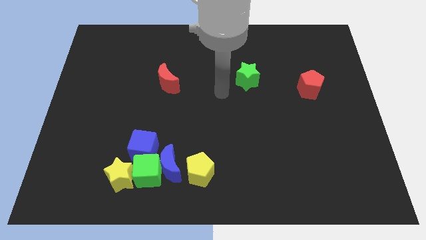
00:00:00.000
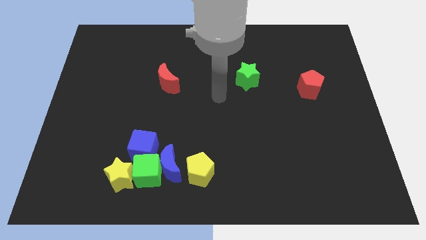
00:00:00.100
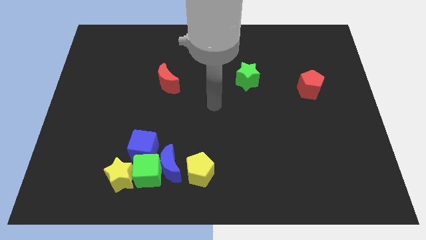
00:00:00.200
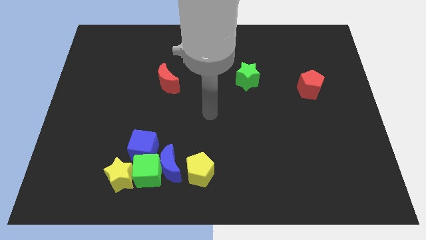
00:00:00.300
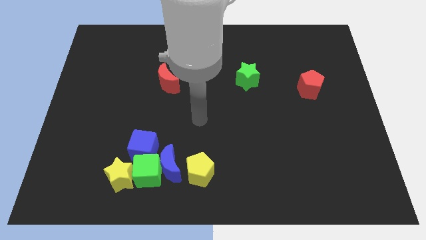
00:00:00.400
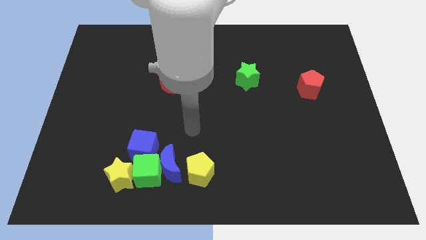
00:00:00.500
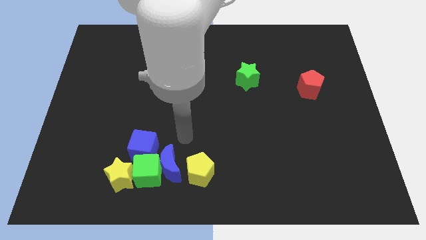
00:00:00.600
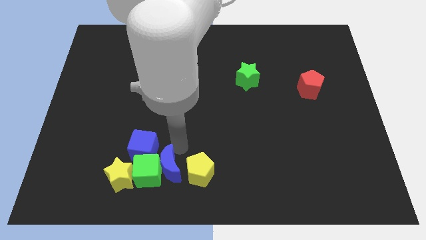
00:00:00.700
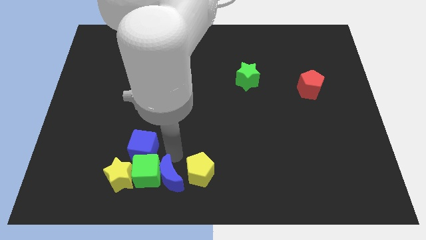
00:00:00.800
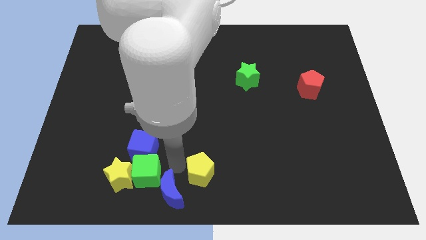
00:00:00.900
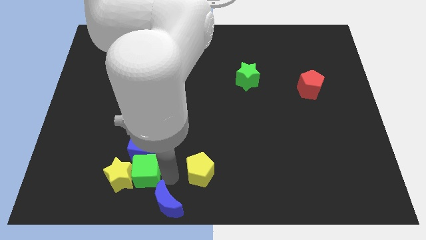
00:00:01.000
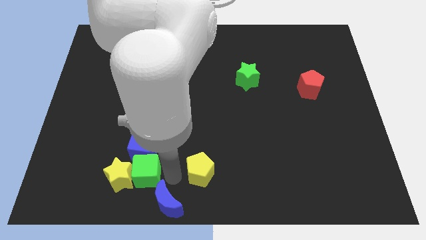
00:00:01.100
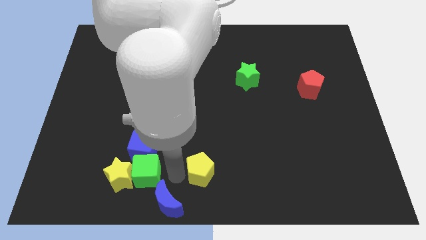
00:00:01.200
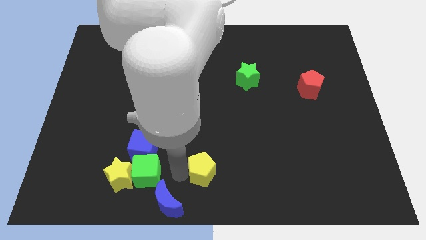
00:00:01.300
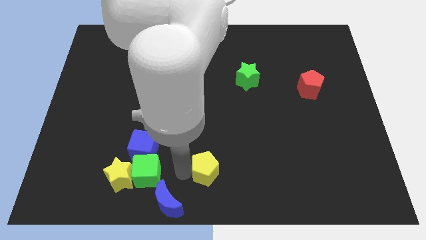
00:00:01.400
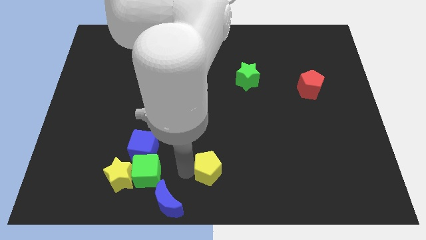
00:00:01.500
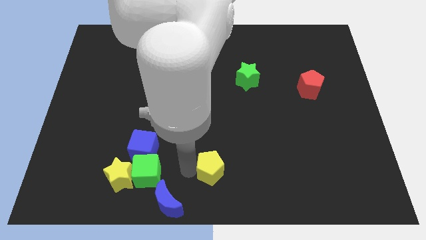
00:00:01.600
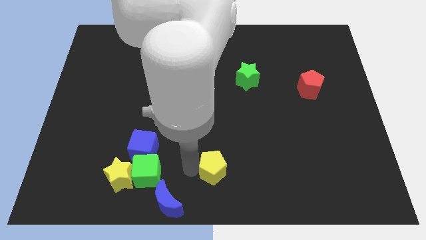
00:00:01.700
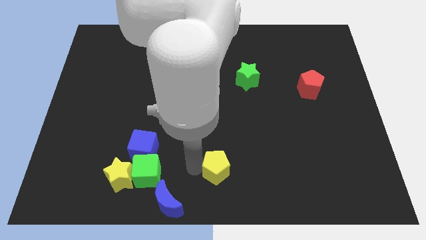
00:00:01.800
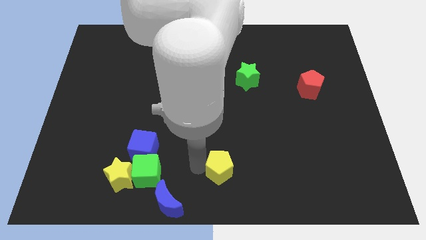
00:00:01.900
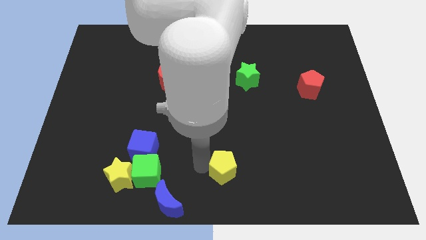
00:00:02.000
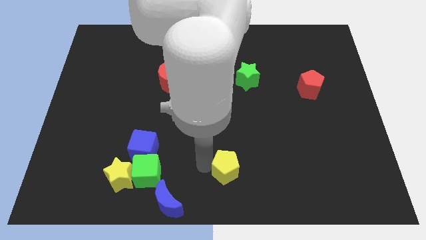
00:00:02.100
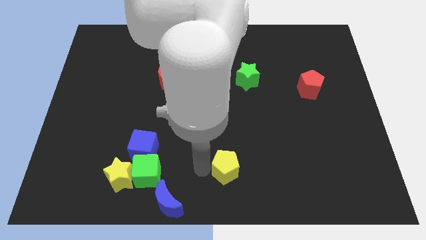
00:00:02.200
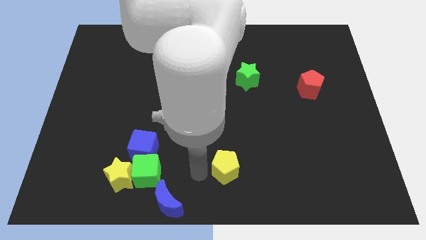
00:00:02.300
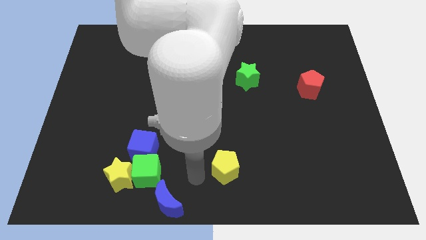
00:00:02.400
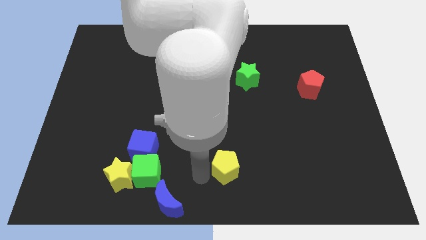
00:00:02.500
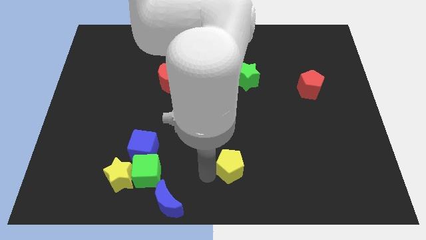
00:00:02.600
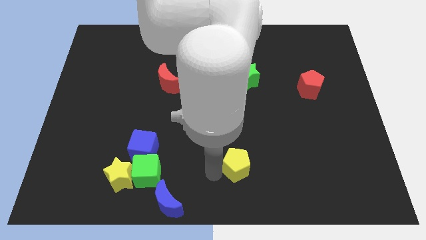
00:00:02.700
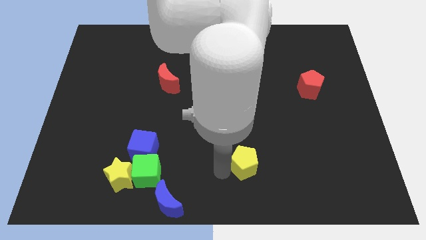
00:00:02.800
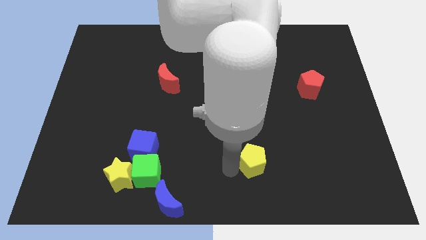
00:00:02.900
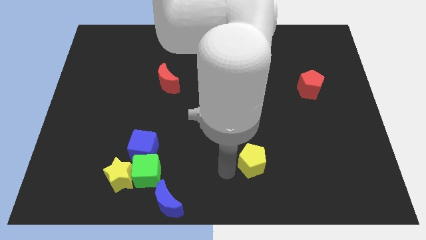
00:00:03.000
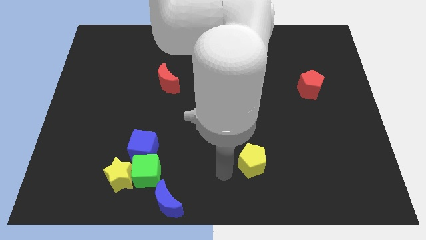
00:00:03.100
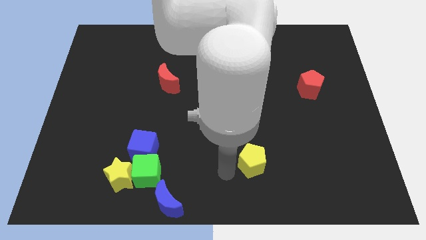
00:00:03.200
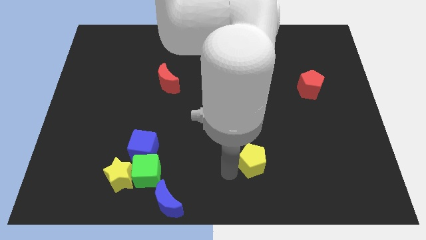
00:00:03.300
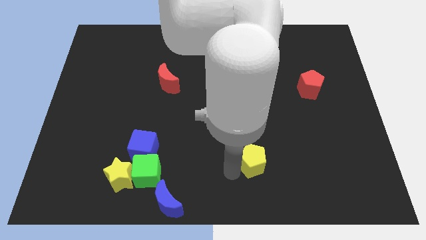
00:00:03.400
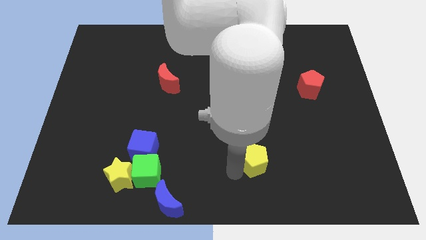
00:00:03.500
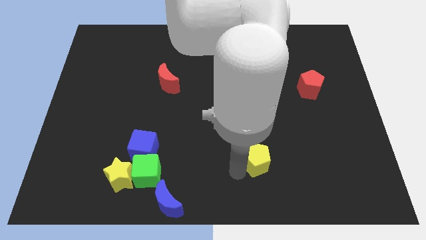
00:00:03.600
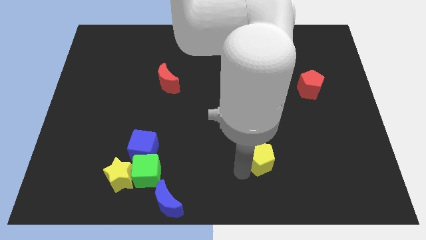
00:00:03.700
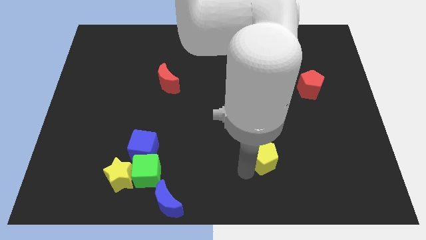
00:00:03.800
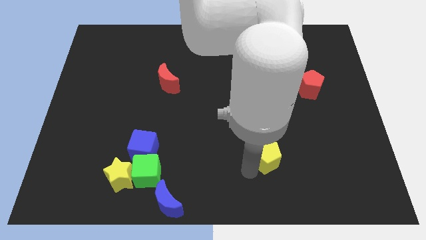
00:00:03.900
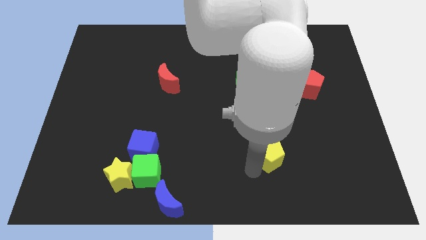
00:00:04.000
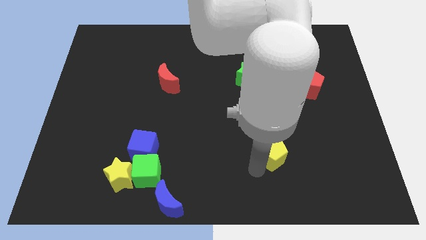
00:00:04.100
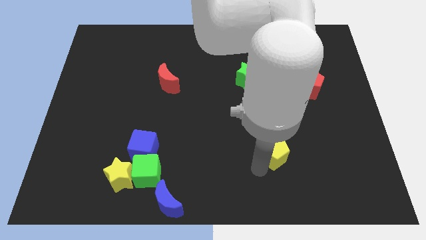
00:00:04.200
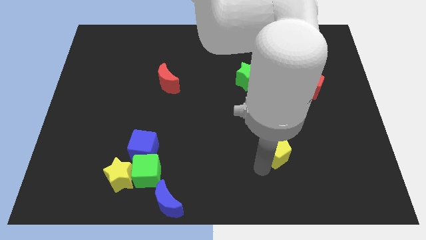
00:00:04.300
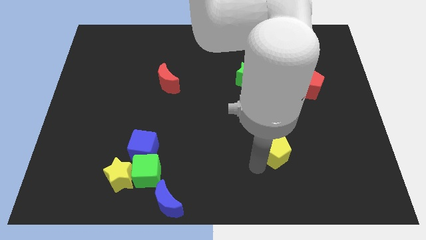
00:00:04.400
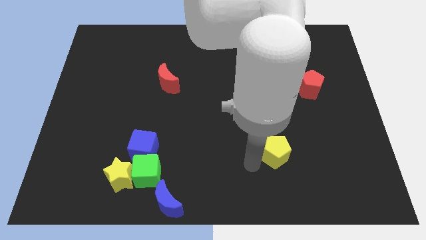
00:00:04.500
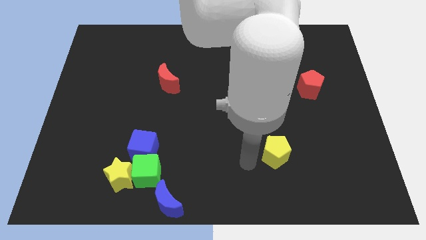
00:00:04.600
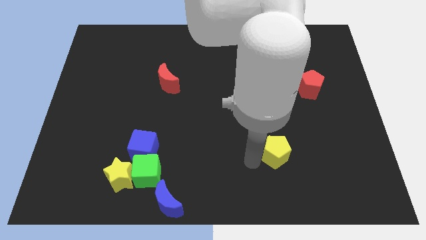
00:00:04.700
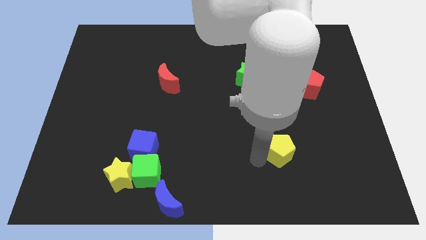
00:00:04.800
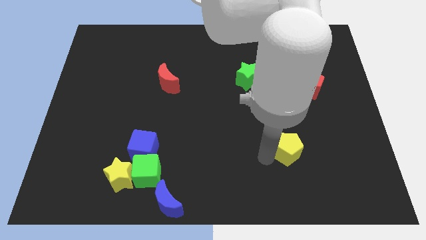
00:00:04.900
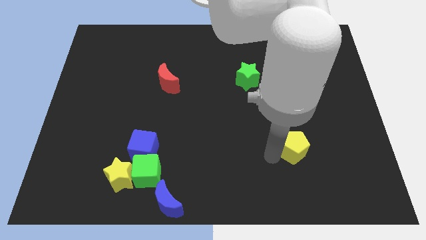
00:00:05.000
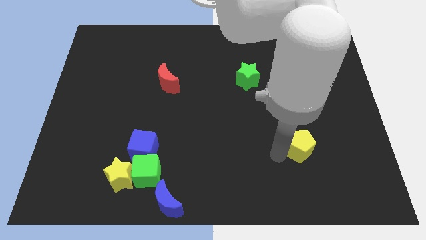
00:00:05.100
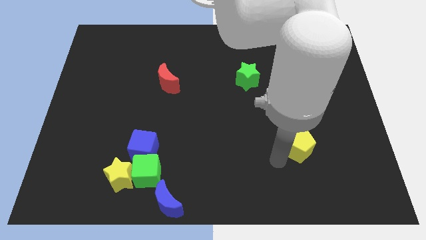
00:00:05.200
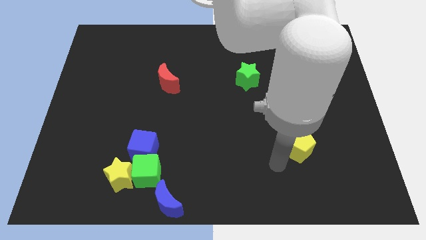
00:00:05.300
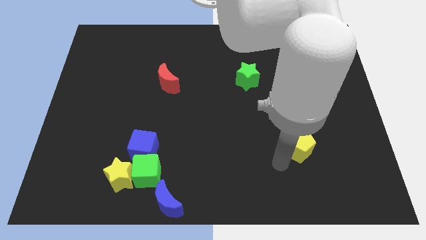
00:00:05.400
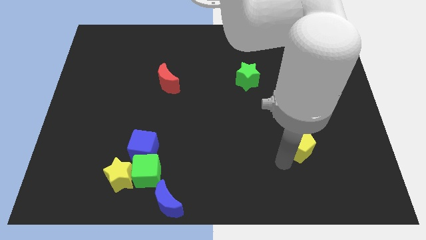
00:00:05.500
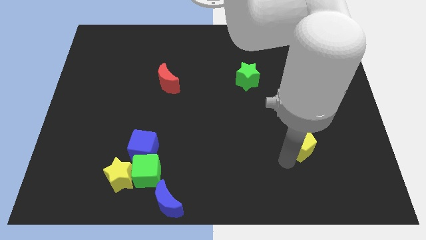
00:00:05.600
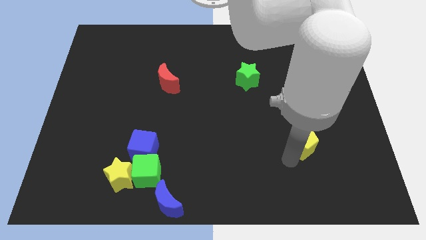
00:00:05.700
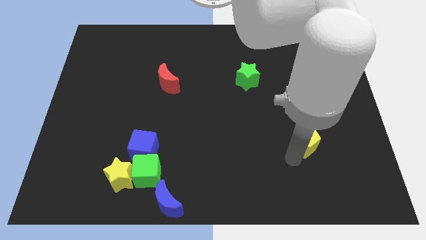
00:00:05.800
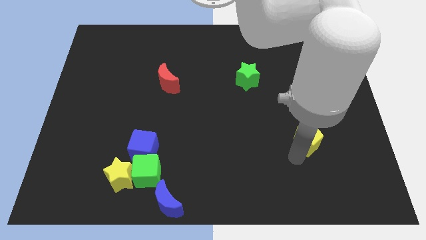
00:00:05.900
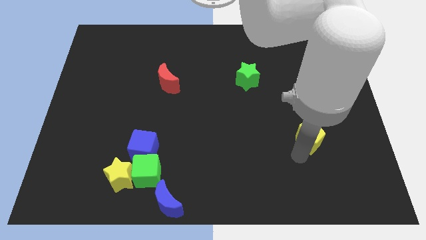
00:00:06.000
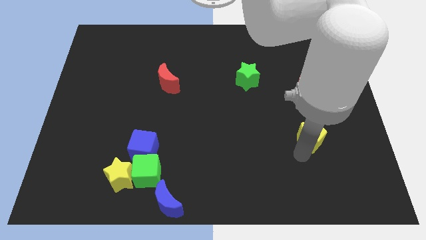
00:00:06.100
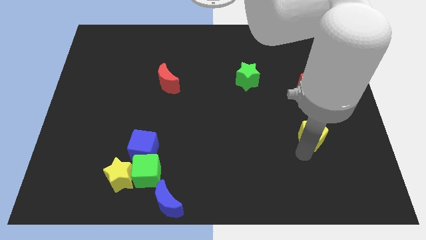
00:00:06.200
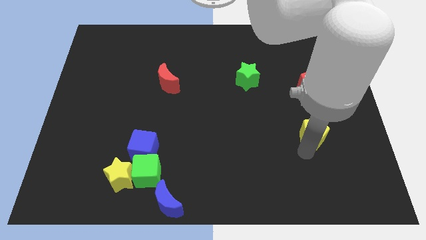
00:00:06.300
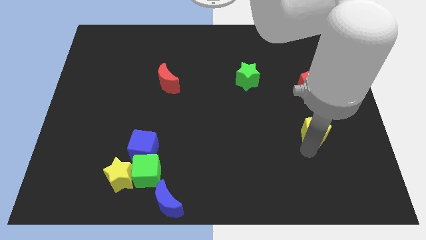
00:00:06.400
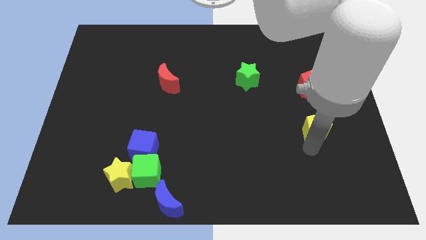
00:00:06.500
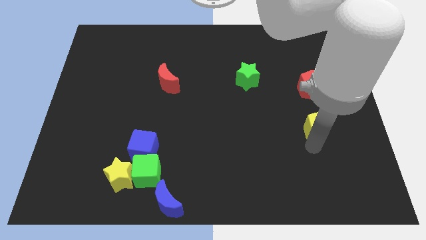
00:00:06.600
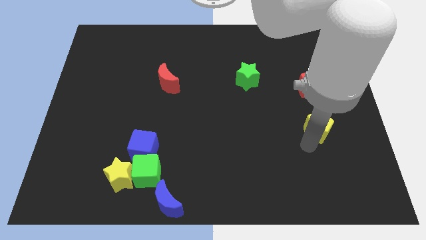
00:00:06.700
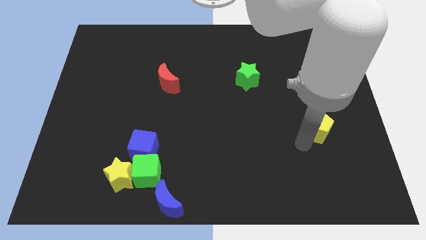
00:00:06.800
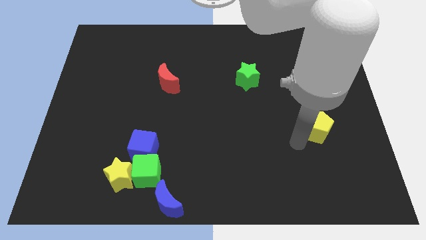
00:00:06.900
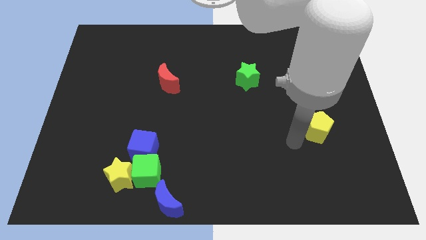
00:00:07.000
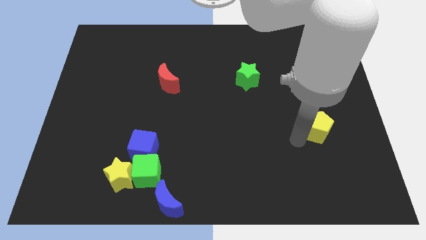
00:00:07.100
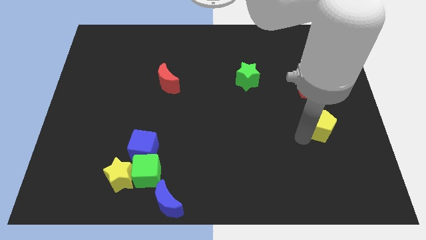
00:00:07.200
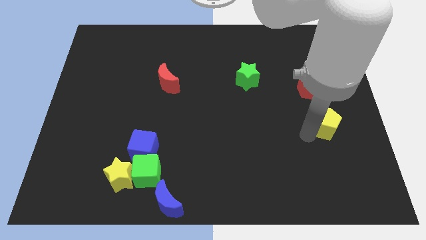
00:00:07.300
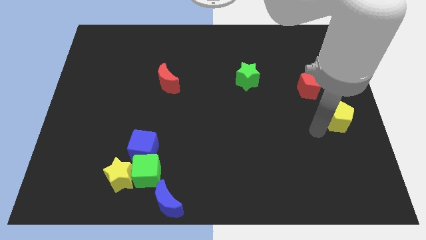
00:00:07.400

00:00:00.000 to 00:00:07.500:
move the yellow pentagon to the right side of the board
